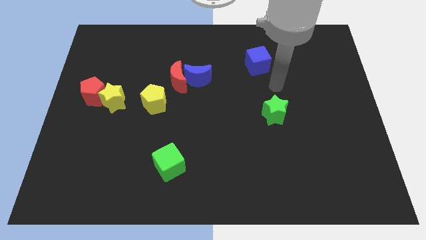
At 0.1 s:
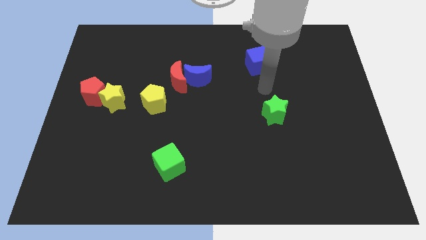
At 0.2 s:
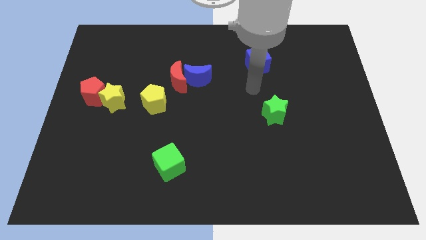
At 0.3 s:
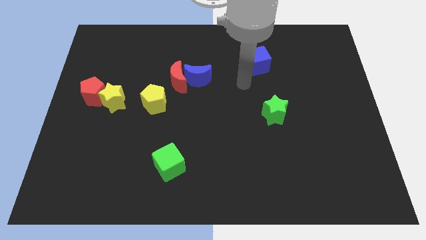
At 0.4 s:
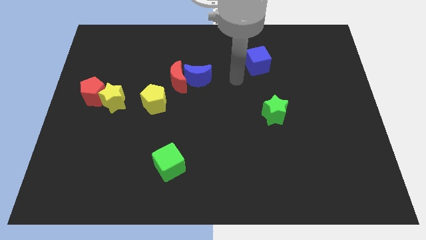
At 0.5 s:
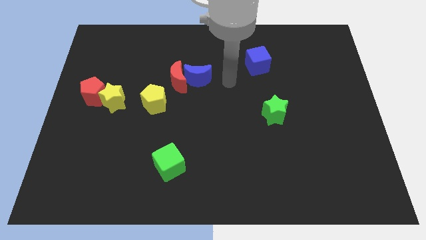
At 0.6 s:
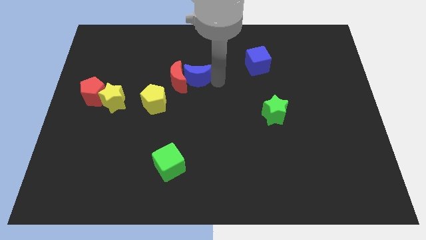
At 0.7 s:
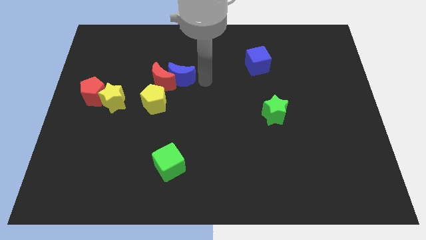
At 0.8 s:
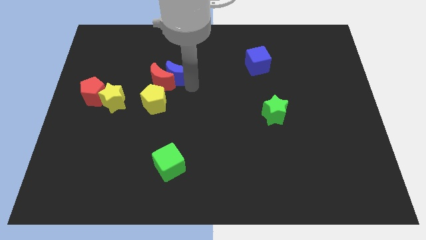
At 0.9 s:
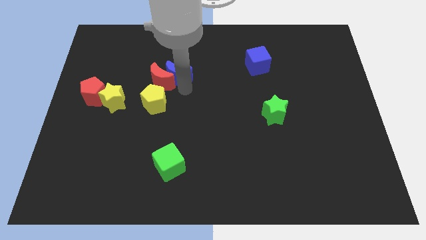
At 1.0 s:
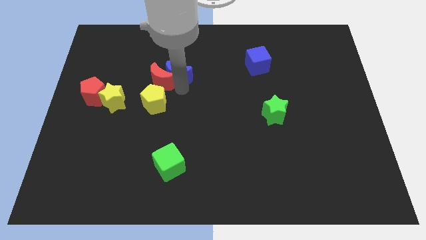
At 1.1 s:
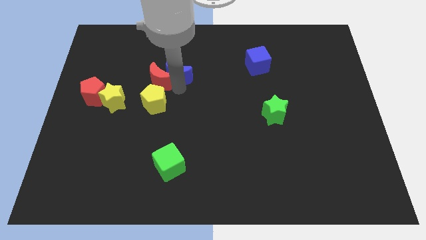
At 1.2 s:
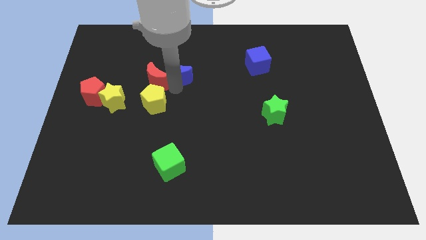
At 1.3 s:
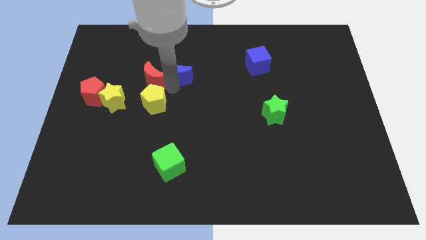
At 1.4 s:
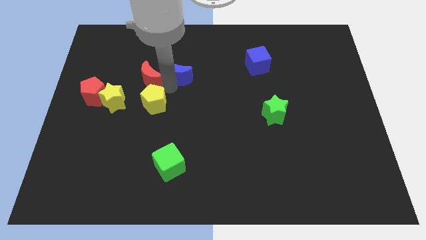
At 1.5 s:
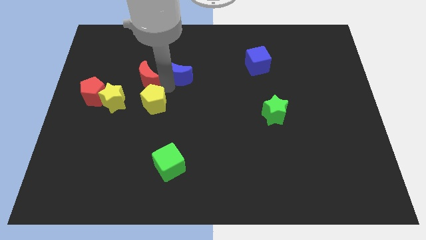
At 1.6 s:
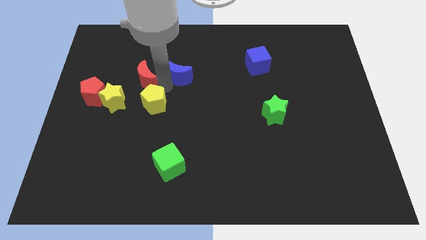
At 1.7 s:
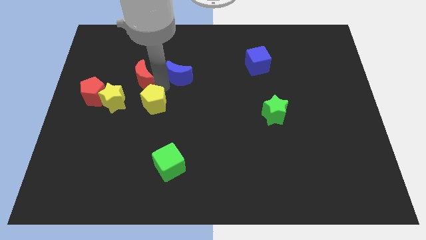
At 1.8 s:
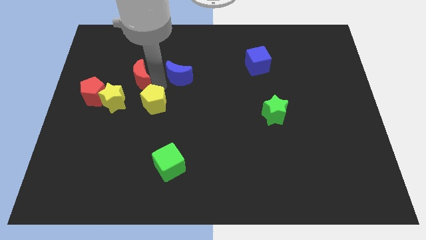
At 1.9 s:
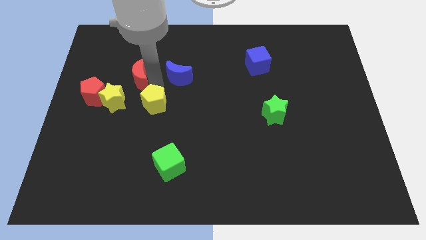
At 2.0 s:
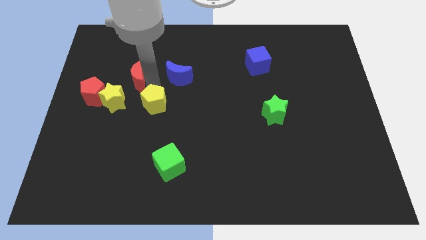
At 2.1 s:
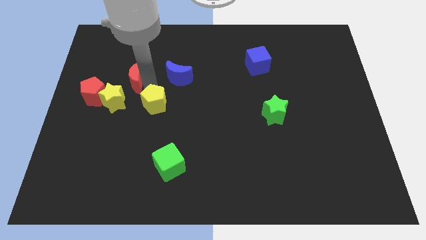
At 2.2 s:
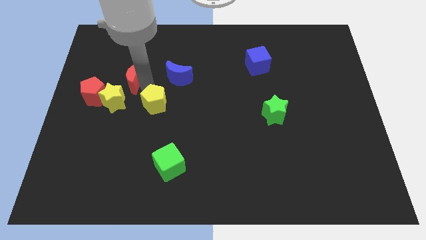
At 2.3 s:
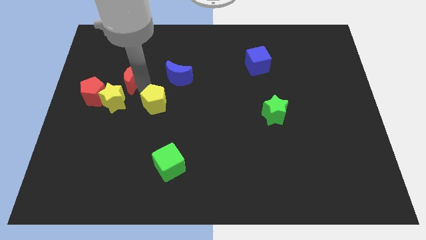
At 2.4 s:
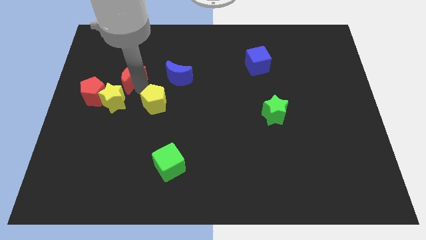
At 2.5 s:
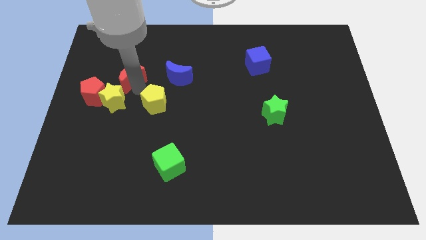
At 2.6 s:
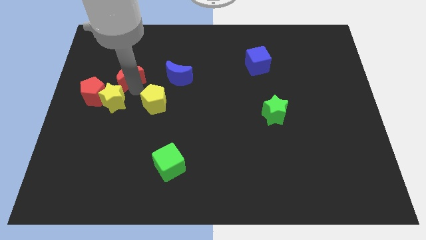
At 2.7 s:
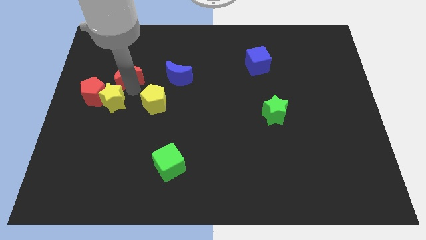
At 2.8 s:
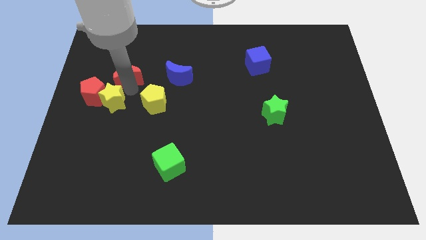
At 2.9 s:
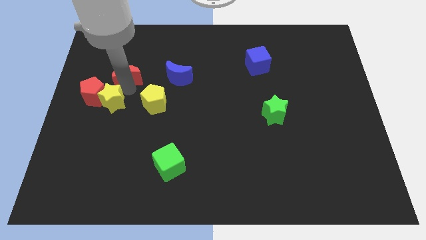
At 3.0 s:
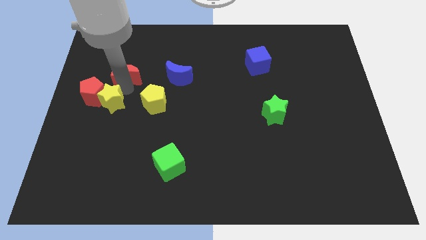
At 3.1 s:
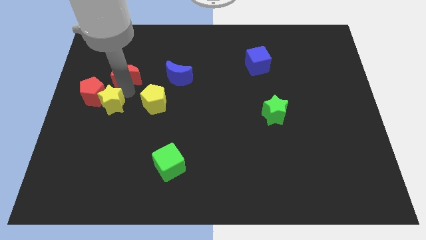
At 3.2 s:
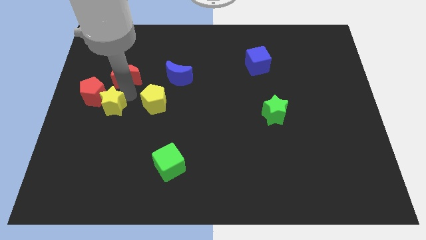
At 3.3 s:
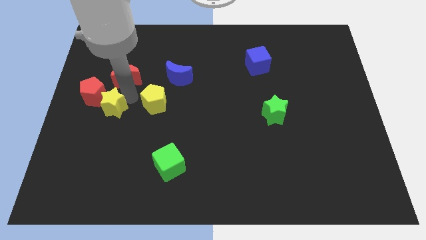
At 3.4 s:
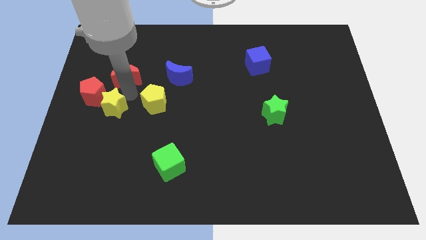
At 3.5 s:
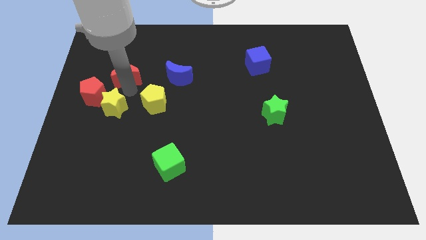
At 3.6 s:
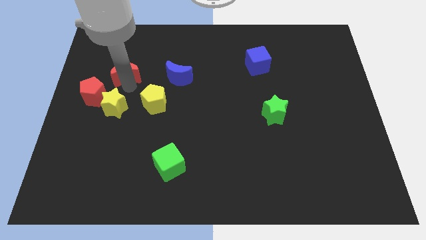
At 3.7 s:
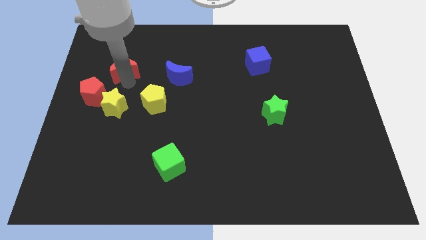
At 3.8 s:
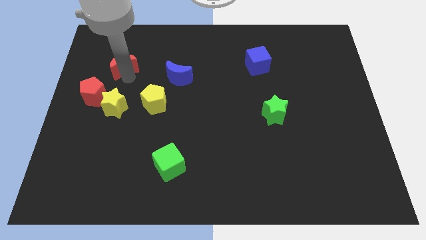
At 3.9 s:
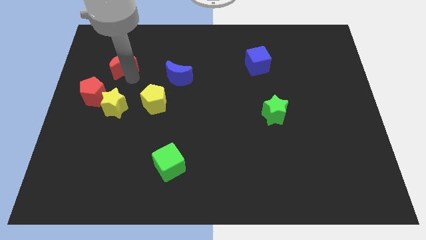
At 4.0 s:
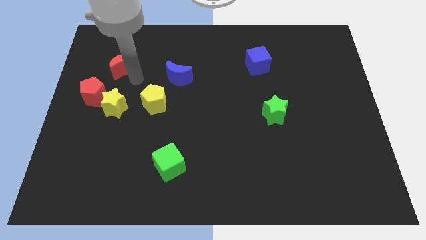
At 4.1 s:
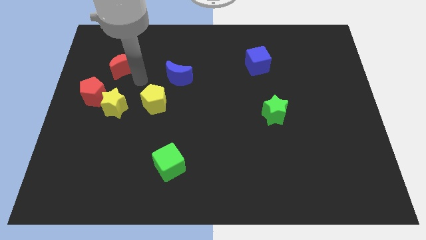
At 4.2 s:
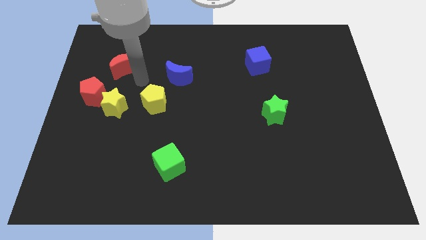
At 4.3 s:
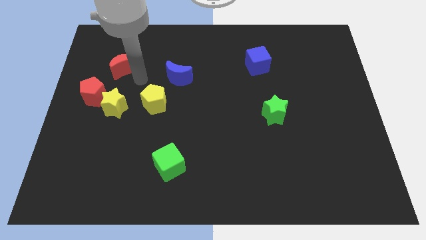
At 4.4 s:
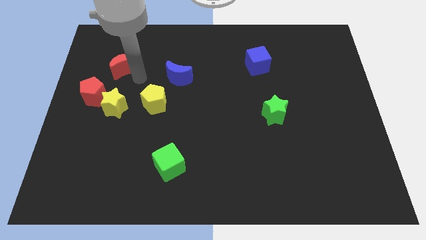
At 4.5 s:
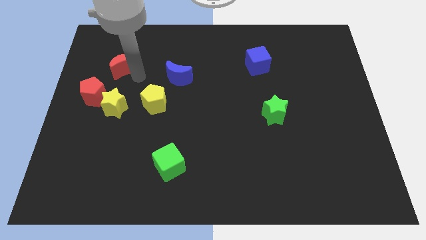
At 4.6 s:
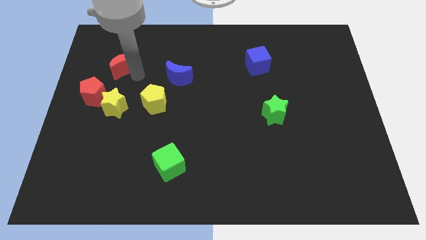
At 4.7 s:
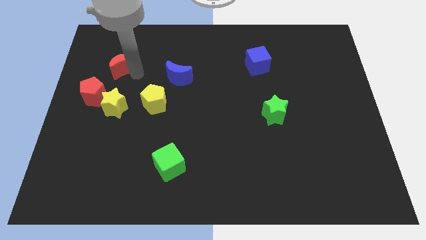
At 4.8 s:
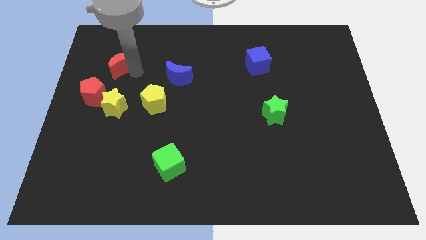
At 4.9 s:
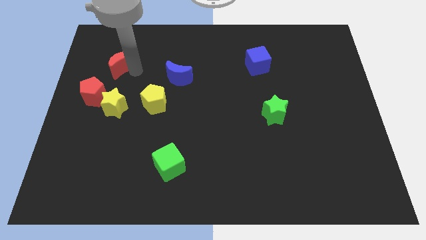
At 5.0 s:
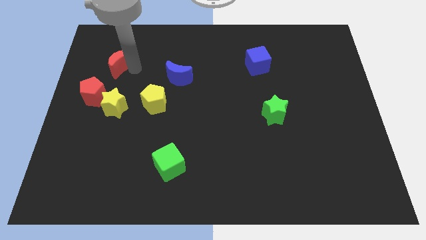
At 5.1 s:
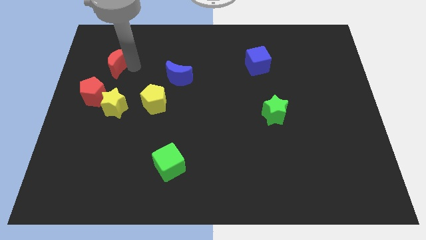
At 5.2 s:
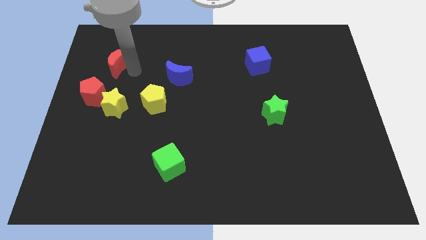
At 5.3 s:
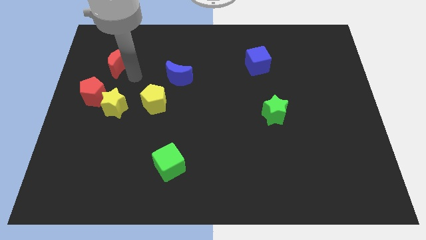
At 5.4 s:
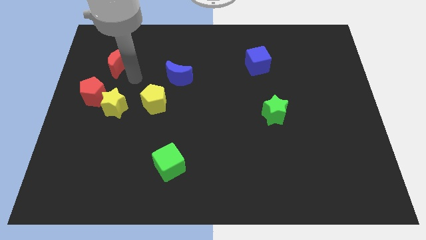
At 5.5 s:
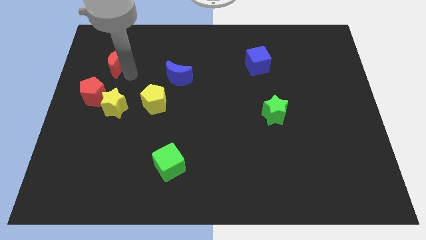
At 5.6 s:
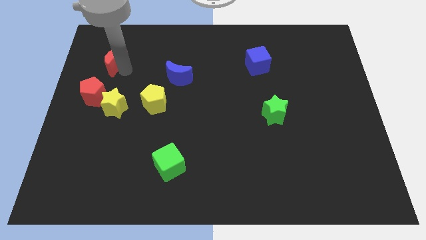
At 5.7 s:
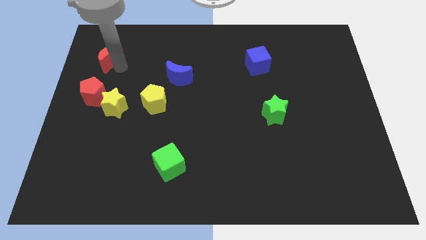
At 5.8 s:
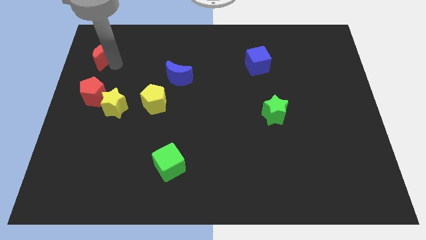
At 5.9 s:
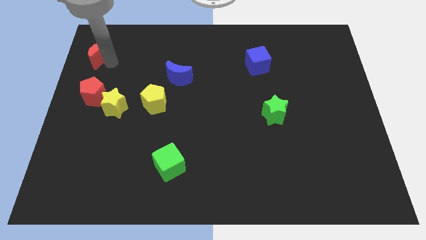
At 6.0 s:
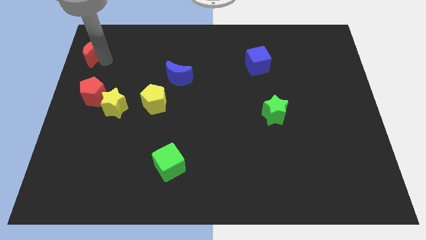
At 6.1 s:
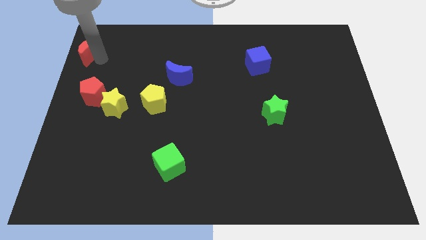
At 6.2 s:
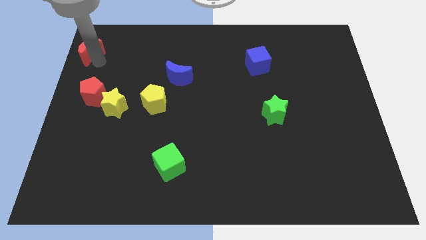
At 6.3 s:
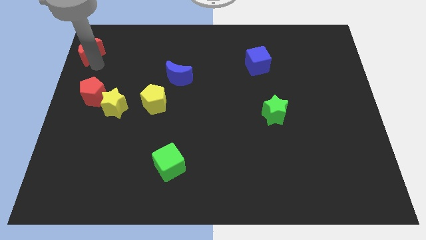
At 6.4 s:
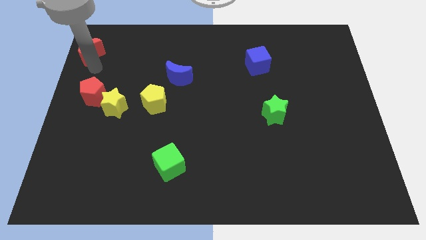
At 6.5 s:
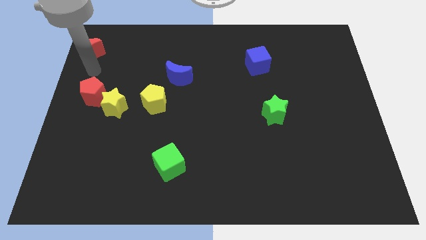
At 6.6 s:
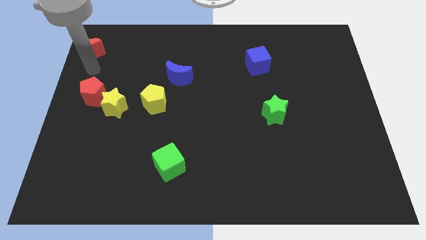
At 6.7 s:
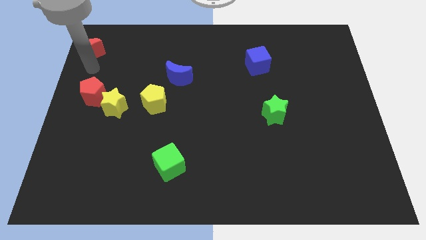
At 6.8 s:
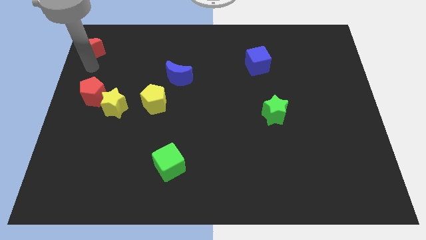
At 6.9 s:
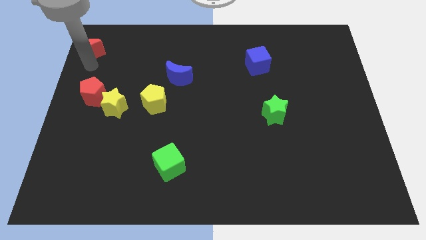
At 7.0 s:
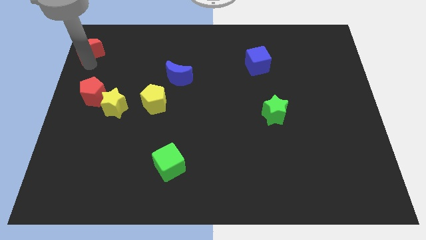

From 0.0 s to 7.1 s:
put the red moon to the upper left corner
